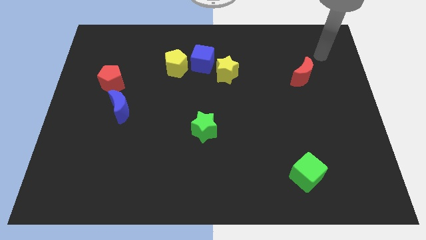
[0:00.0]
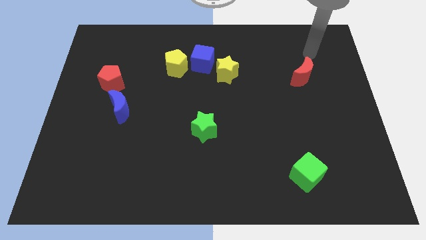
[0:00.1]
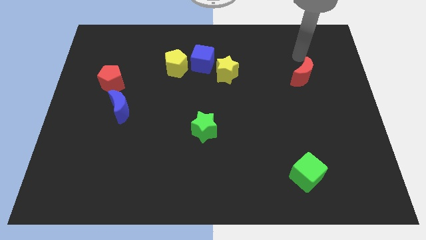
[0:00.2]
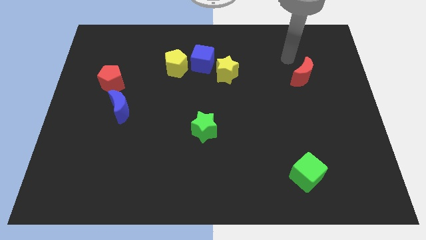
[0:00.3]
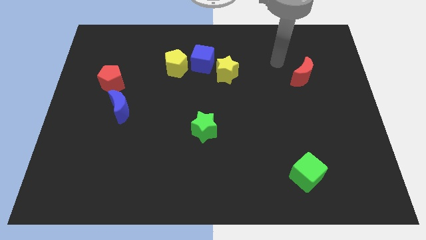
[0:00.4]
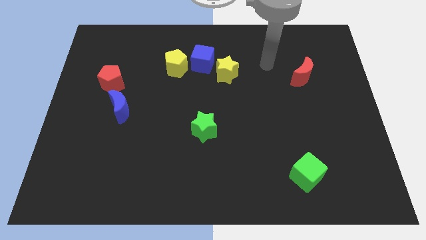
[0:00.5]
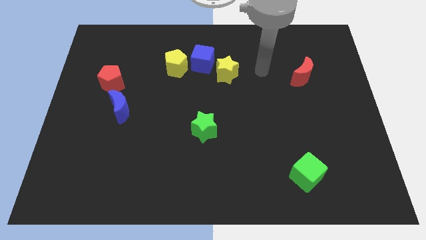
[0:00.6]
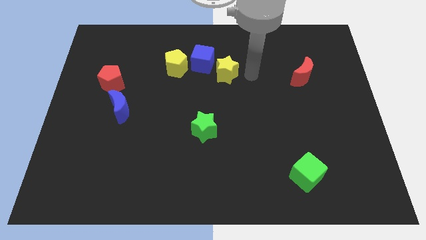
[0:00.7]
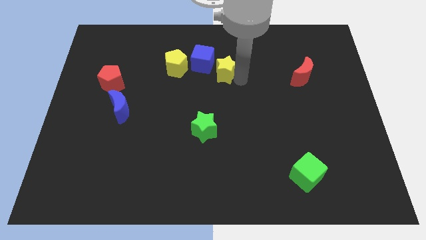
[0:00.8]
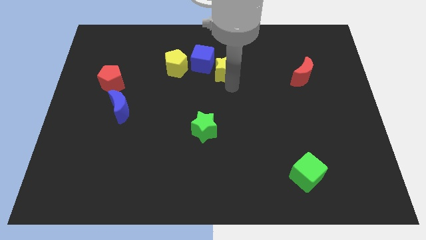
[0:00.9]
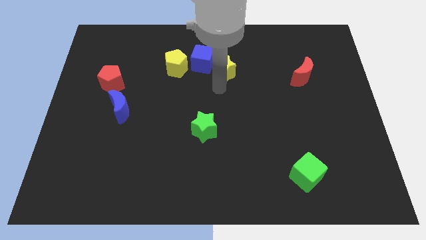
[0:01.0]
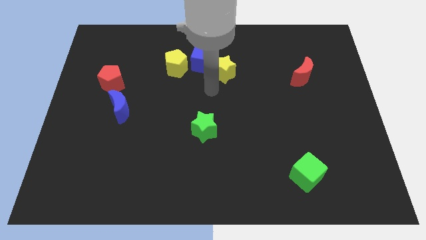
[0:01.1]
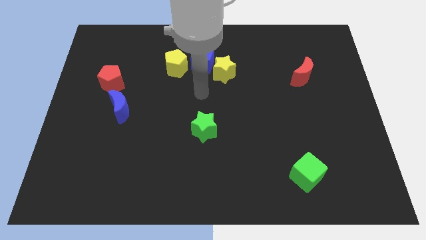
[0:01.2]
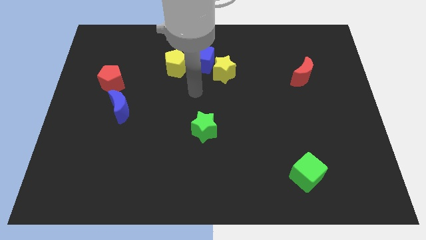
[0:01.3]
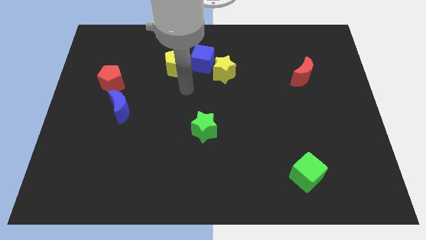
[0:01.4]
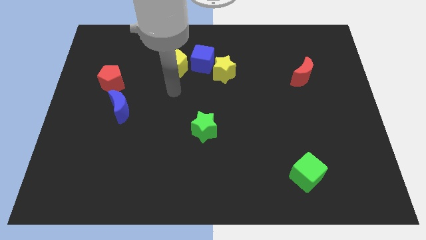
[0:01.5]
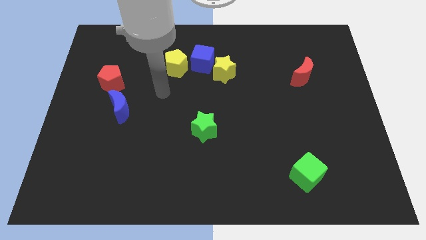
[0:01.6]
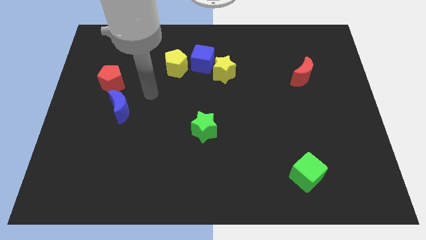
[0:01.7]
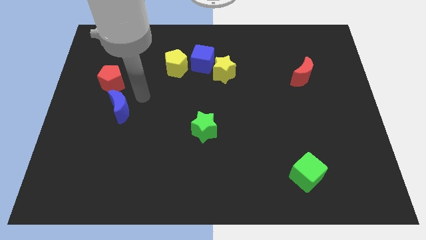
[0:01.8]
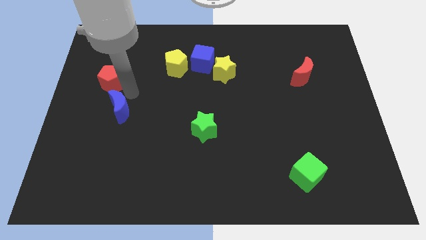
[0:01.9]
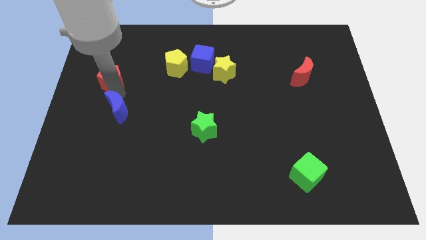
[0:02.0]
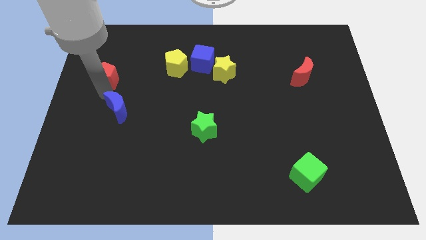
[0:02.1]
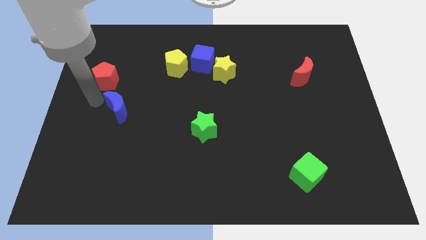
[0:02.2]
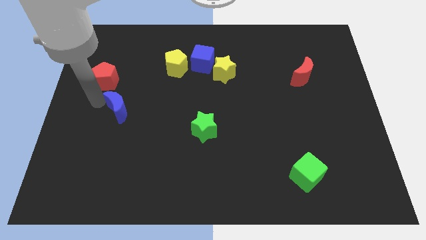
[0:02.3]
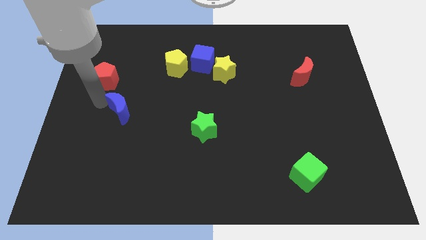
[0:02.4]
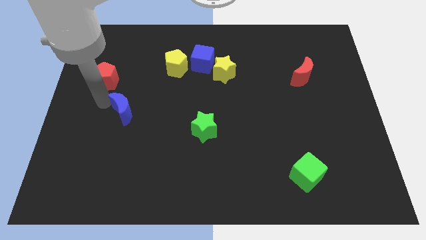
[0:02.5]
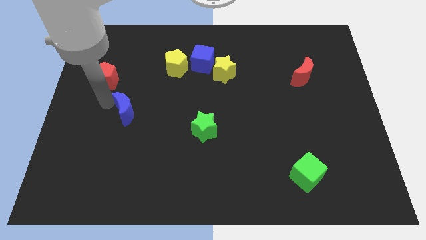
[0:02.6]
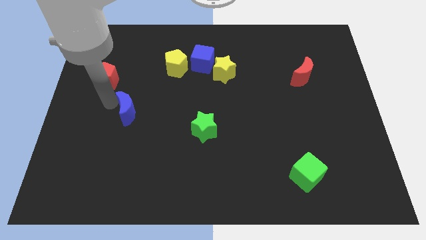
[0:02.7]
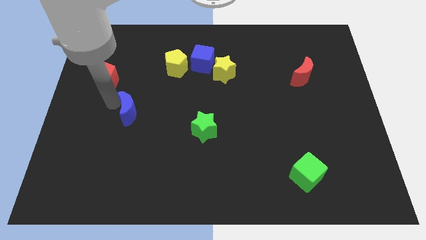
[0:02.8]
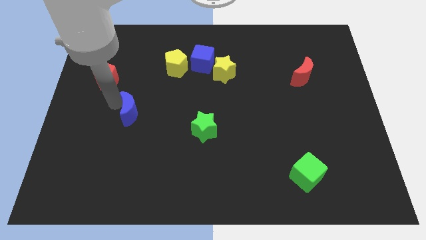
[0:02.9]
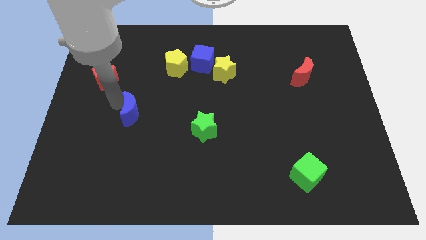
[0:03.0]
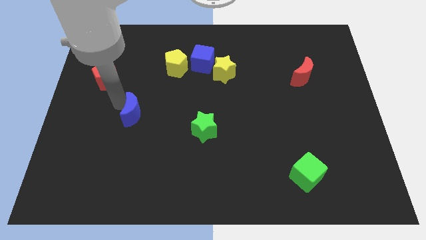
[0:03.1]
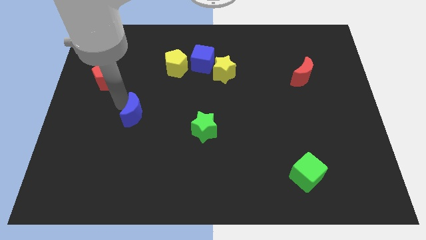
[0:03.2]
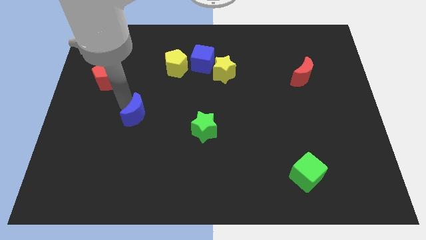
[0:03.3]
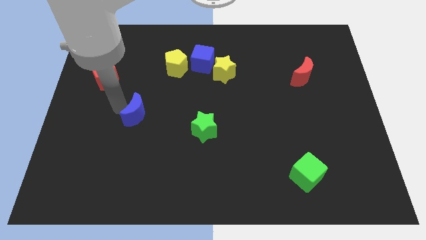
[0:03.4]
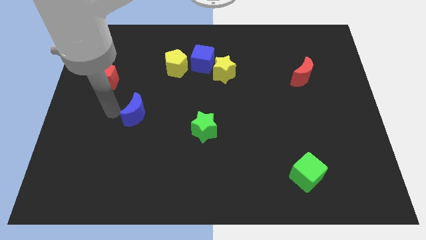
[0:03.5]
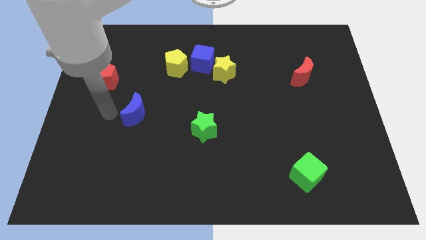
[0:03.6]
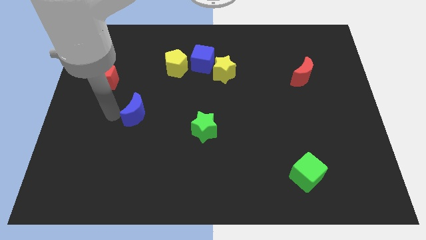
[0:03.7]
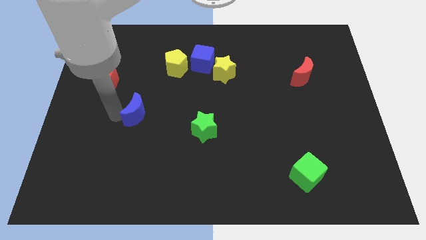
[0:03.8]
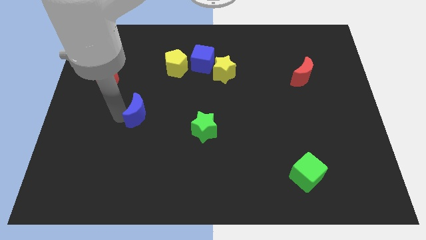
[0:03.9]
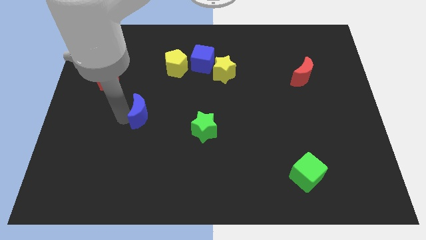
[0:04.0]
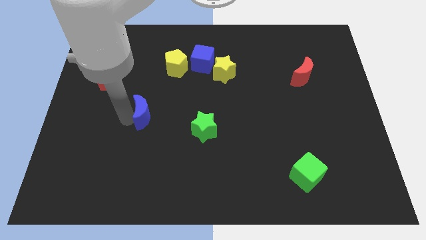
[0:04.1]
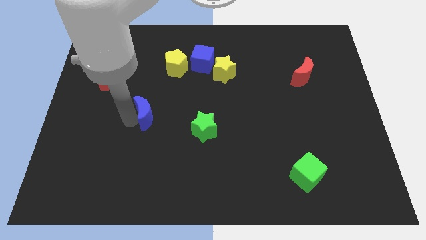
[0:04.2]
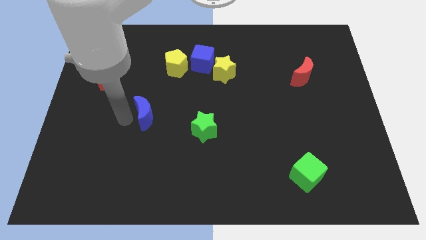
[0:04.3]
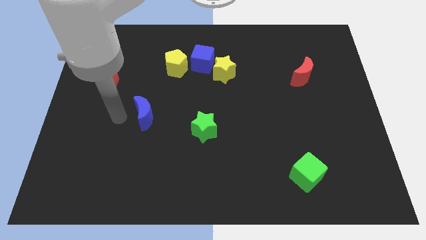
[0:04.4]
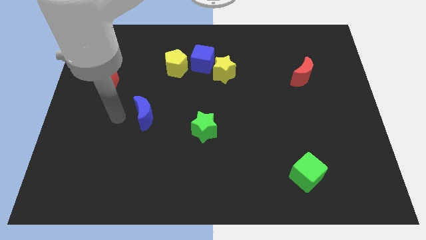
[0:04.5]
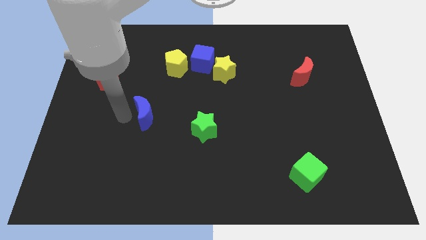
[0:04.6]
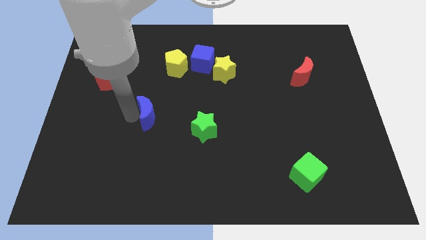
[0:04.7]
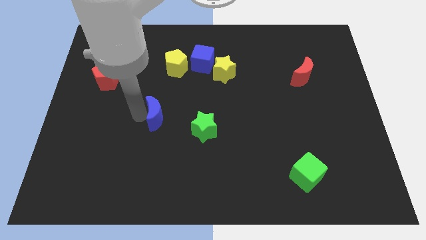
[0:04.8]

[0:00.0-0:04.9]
push the blue moon to the right a bit

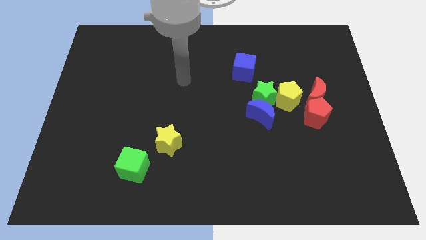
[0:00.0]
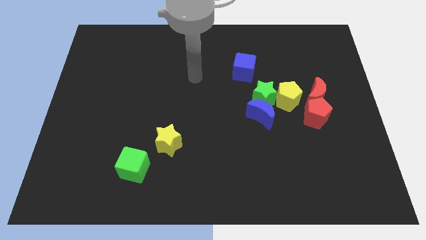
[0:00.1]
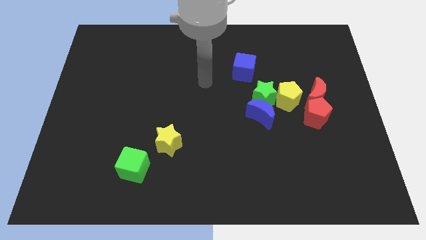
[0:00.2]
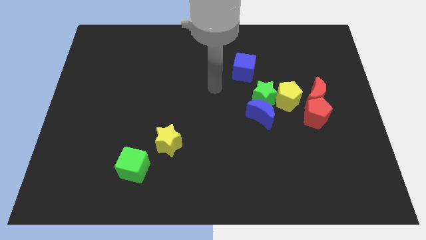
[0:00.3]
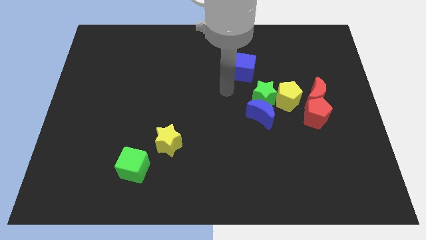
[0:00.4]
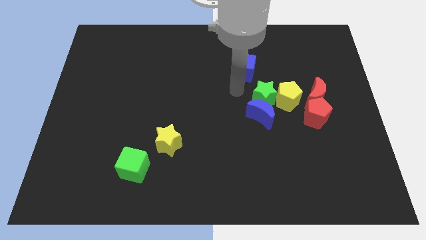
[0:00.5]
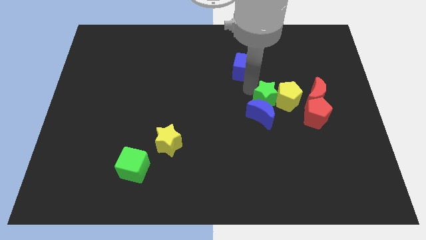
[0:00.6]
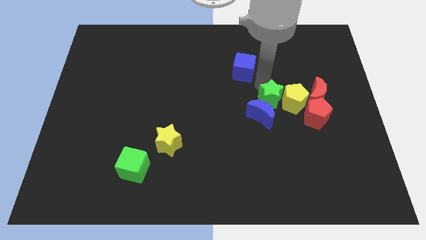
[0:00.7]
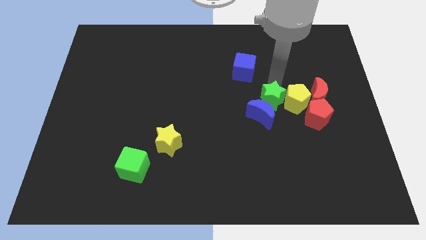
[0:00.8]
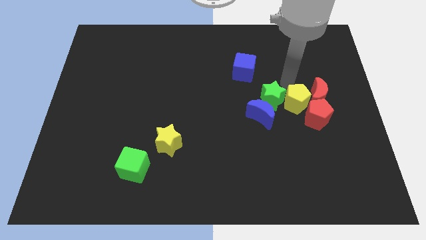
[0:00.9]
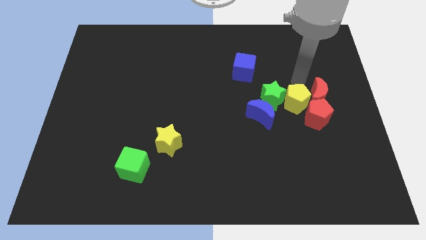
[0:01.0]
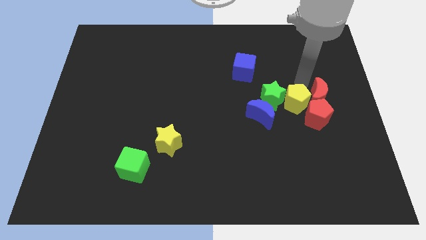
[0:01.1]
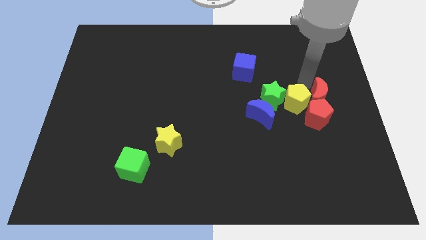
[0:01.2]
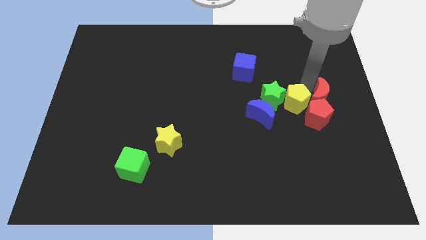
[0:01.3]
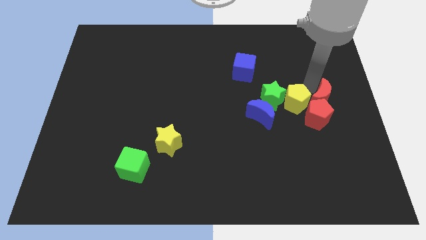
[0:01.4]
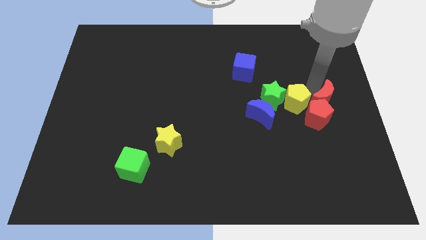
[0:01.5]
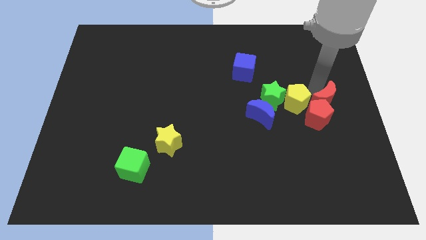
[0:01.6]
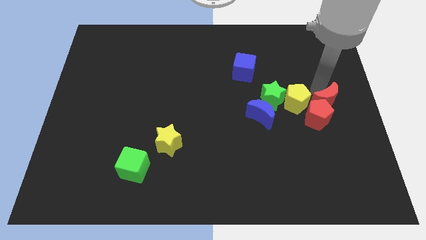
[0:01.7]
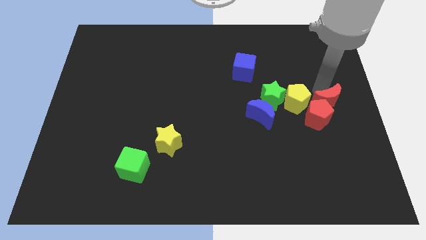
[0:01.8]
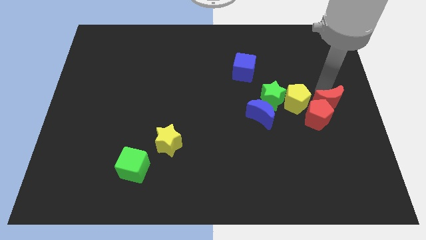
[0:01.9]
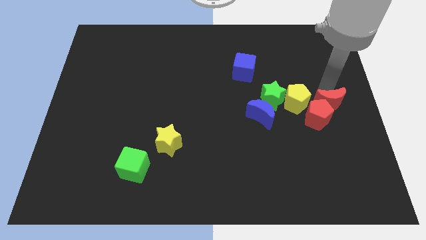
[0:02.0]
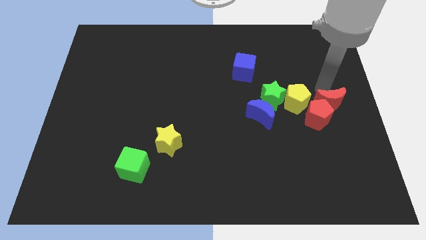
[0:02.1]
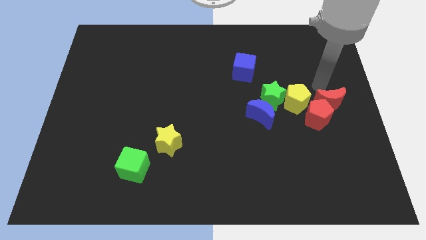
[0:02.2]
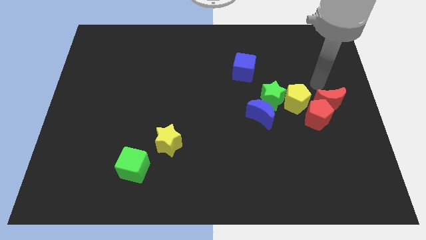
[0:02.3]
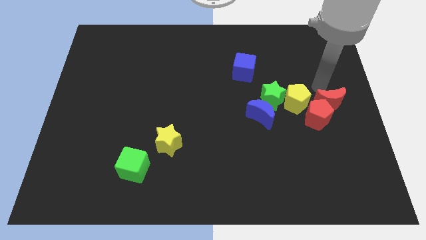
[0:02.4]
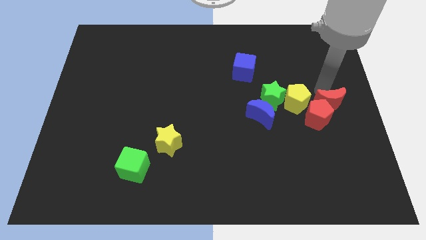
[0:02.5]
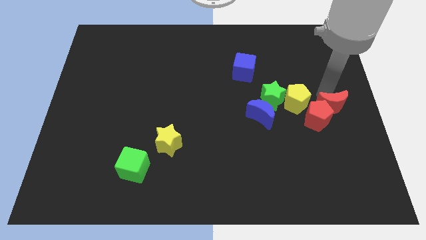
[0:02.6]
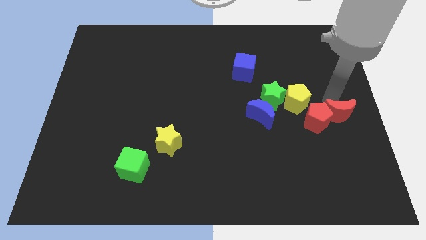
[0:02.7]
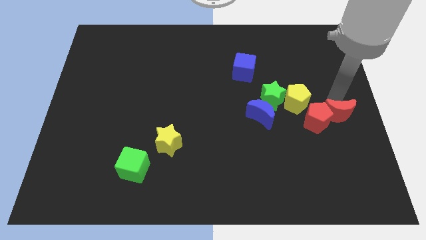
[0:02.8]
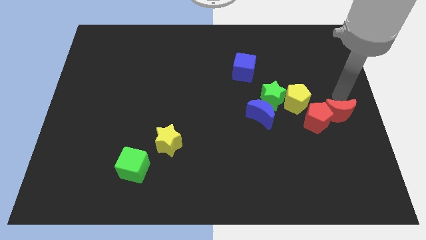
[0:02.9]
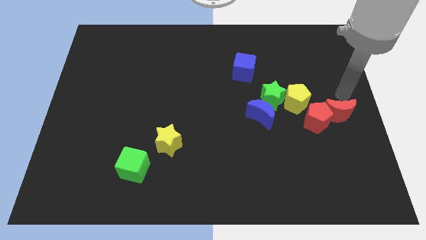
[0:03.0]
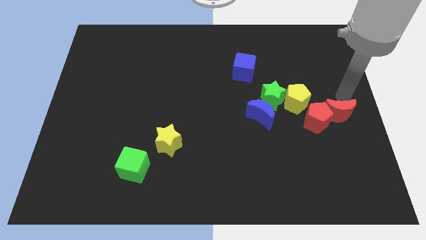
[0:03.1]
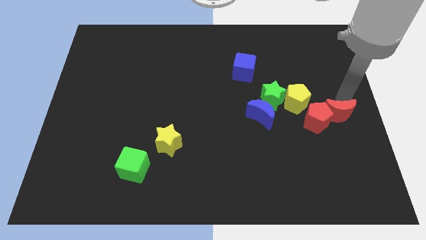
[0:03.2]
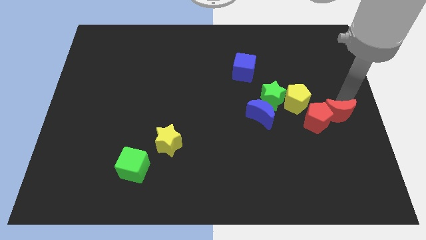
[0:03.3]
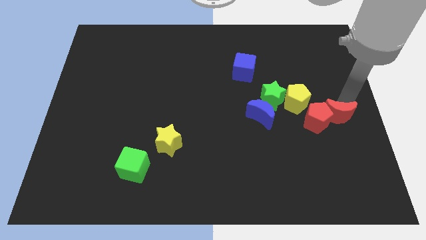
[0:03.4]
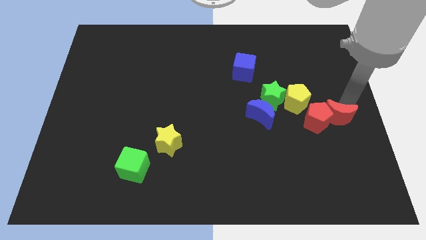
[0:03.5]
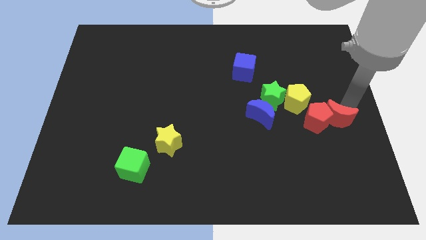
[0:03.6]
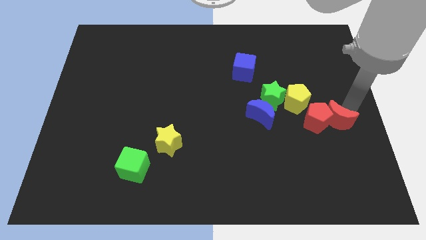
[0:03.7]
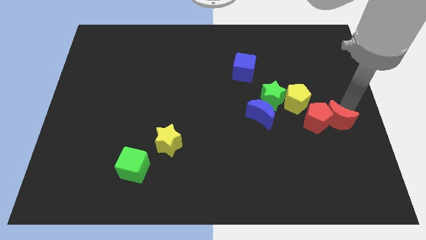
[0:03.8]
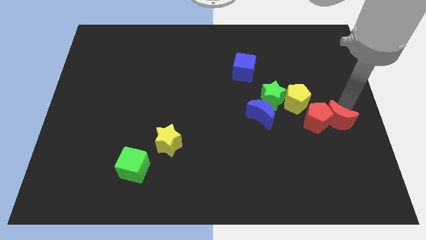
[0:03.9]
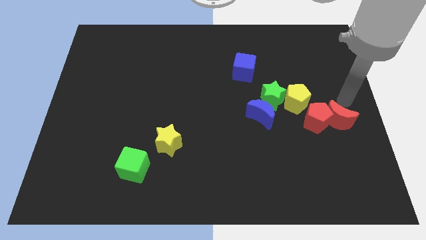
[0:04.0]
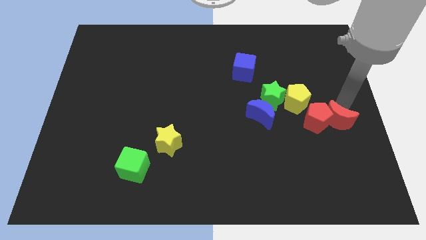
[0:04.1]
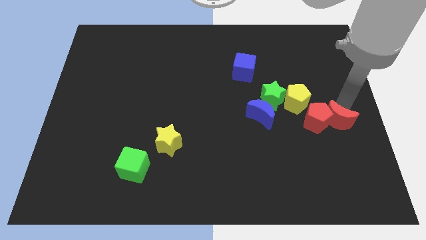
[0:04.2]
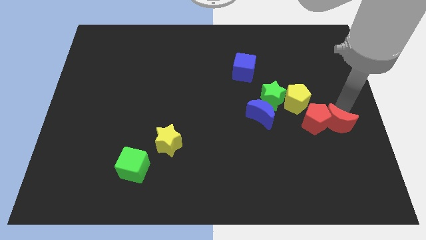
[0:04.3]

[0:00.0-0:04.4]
move the red moon down a little bit
